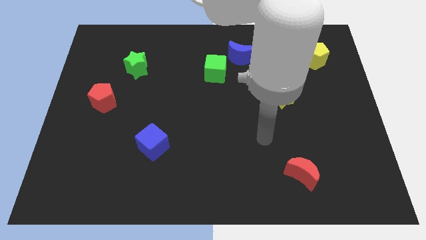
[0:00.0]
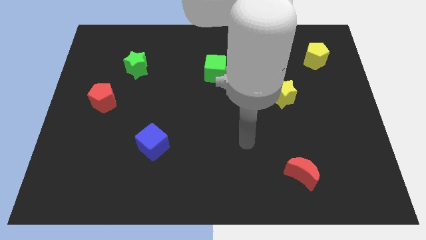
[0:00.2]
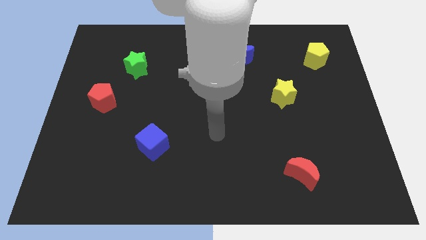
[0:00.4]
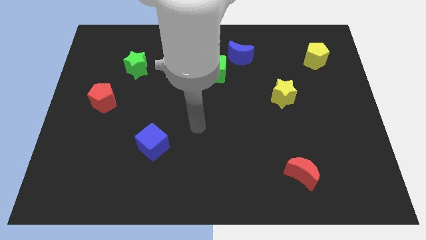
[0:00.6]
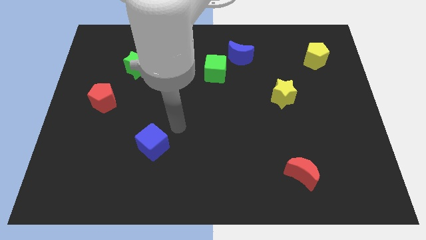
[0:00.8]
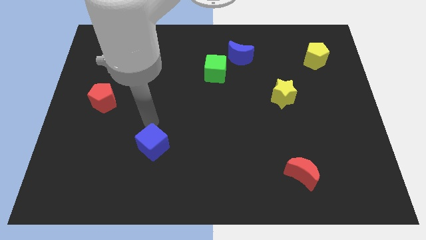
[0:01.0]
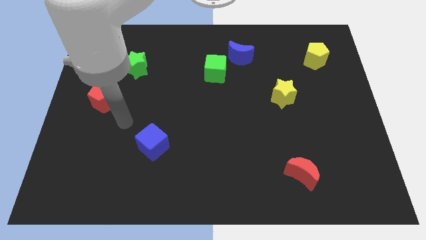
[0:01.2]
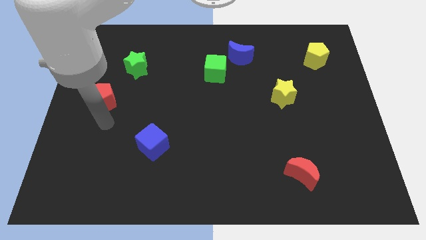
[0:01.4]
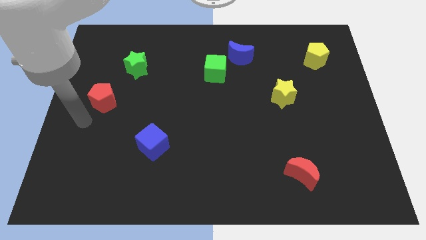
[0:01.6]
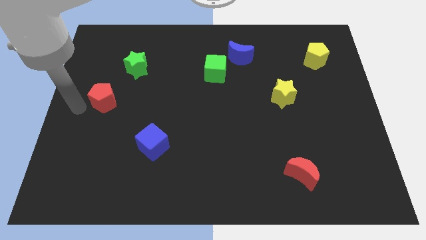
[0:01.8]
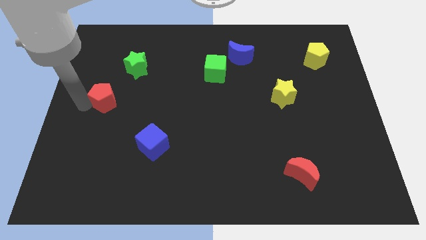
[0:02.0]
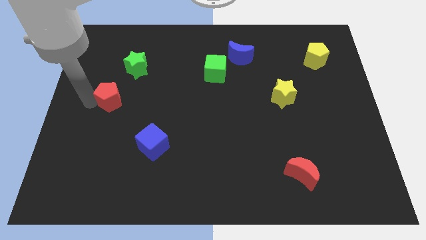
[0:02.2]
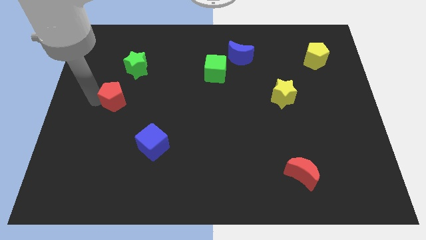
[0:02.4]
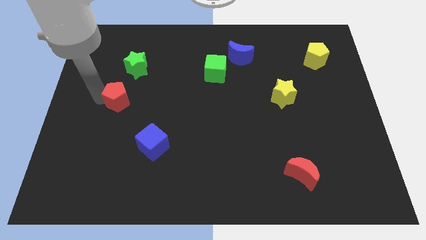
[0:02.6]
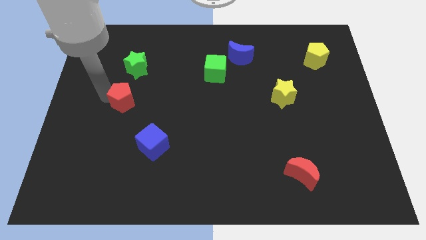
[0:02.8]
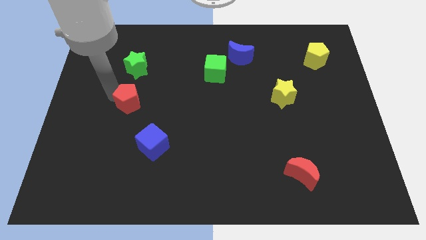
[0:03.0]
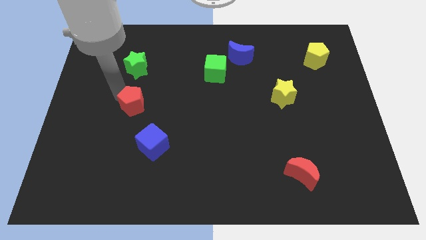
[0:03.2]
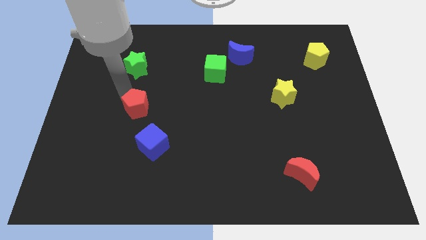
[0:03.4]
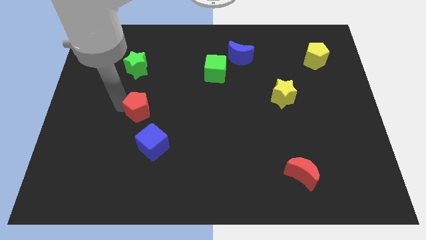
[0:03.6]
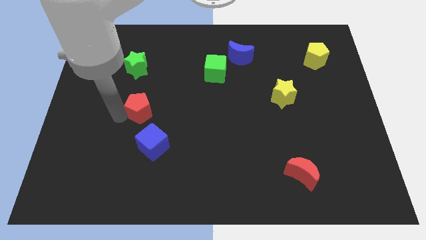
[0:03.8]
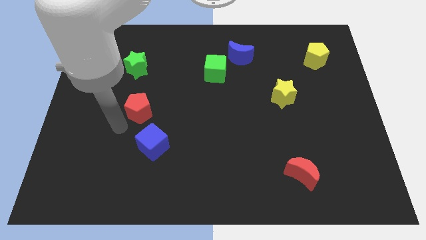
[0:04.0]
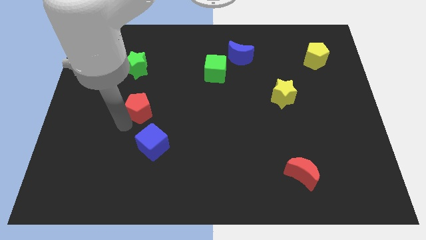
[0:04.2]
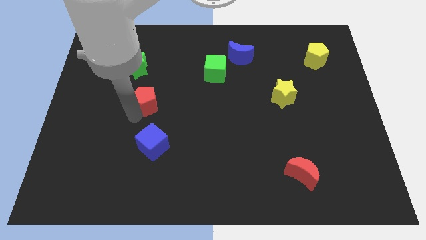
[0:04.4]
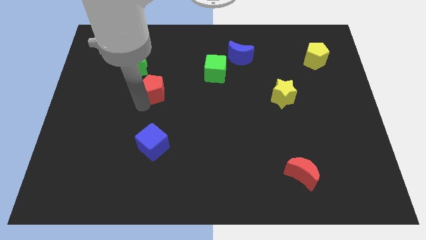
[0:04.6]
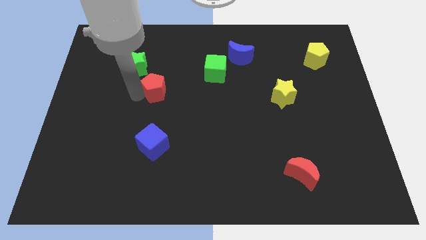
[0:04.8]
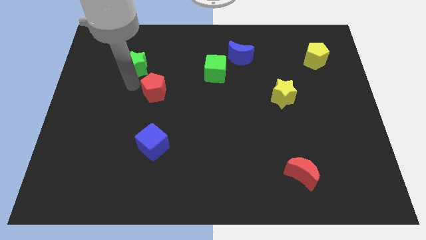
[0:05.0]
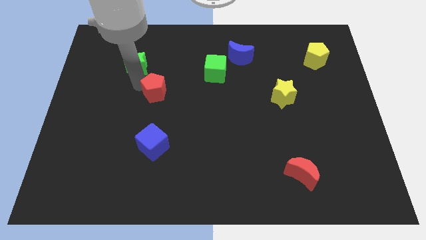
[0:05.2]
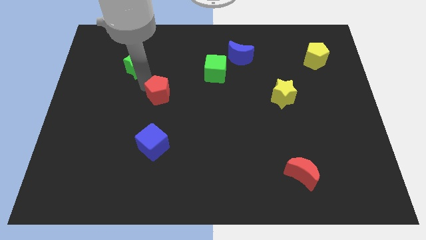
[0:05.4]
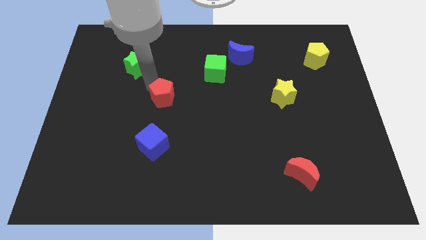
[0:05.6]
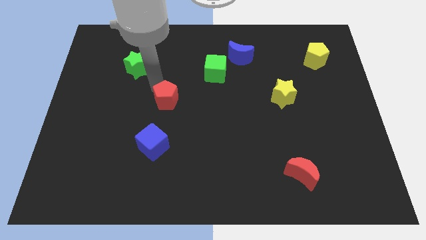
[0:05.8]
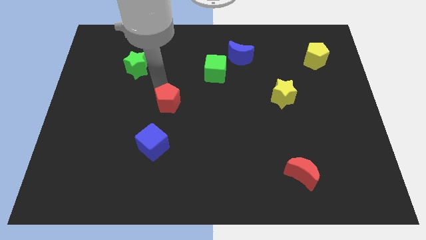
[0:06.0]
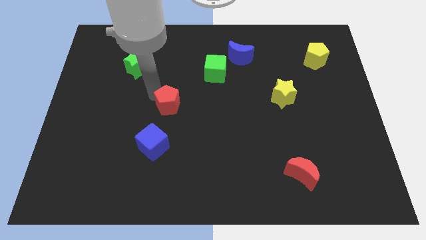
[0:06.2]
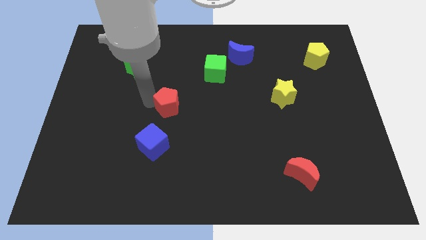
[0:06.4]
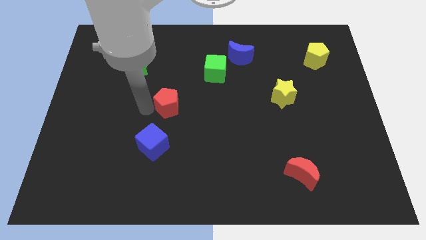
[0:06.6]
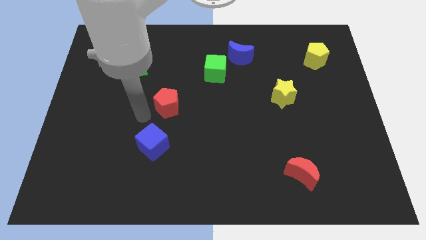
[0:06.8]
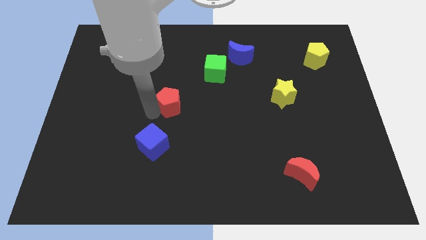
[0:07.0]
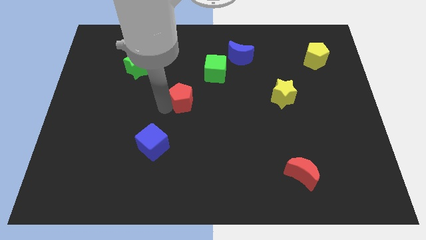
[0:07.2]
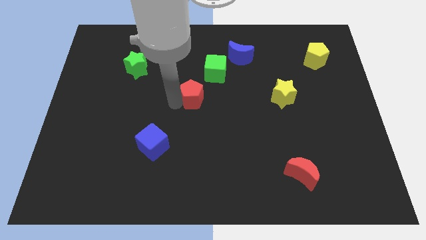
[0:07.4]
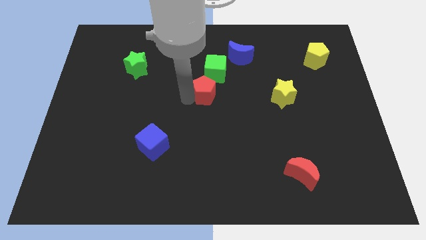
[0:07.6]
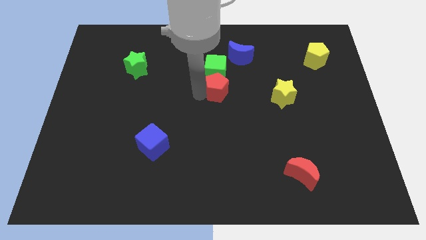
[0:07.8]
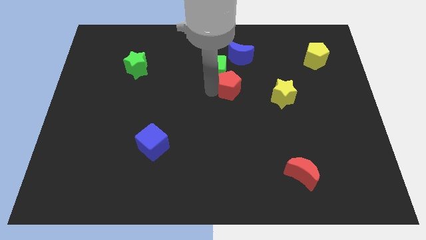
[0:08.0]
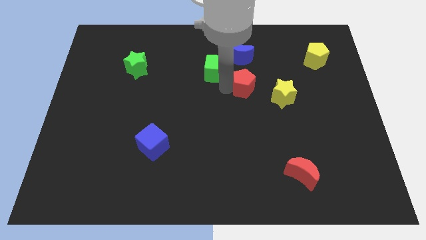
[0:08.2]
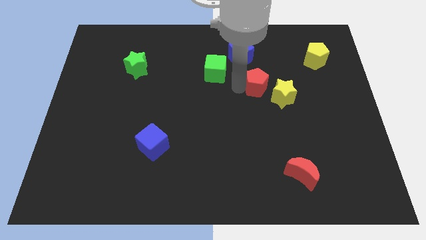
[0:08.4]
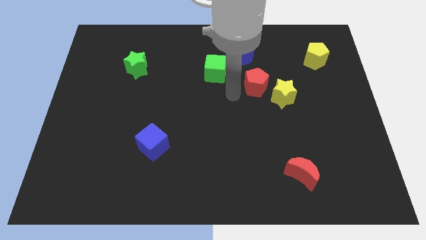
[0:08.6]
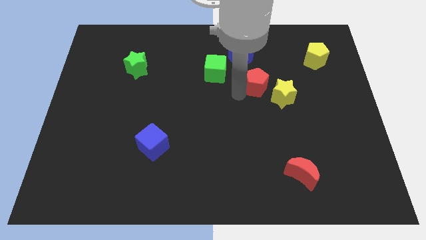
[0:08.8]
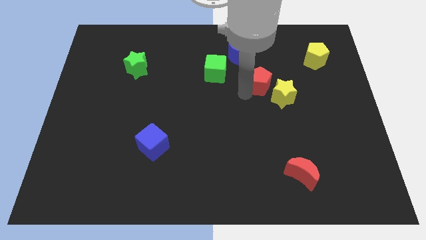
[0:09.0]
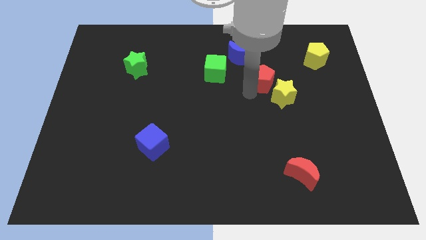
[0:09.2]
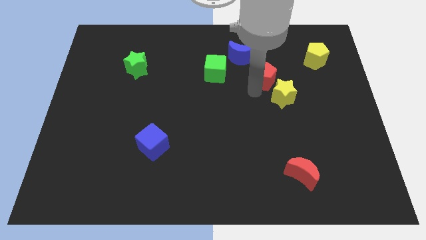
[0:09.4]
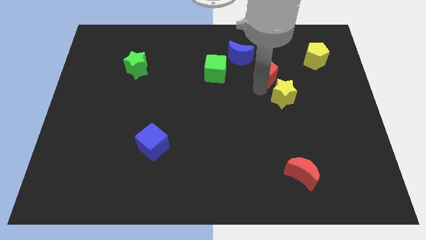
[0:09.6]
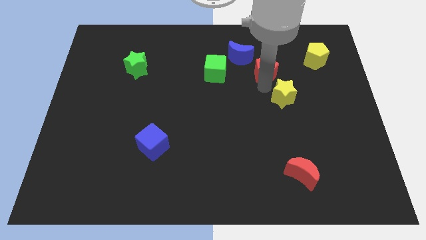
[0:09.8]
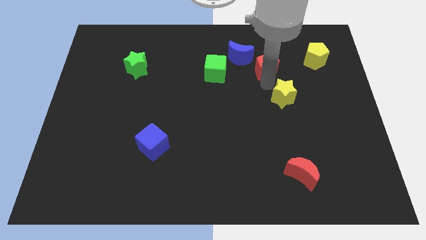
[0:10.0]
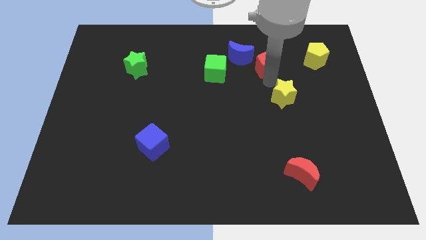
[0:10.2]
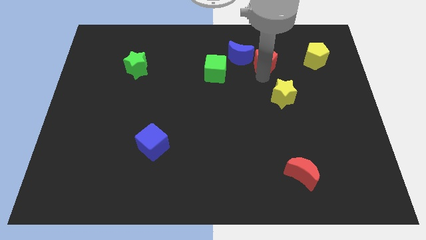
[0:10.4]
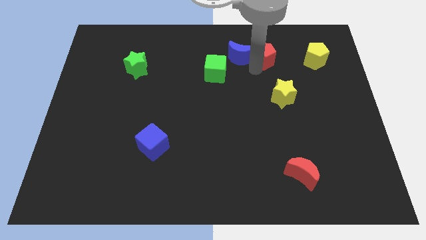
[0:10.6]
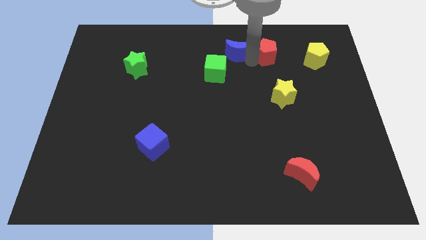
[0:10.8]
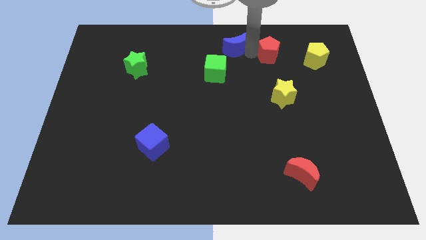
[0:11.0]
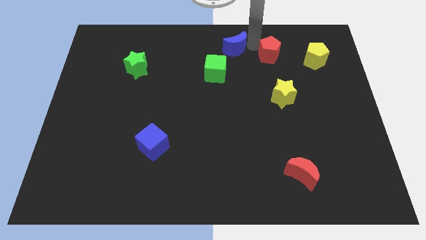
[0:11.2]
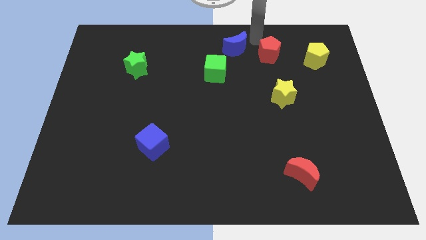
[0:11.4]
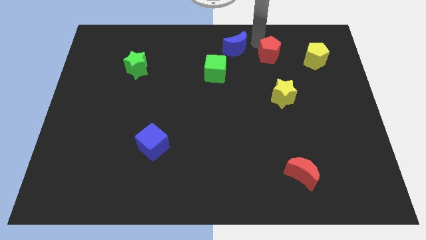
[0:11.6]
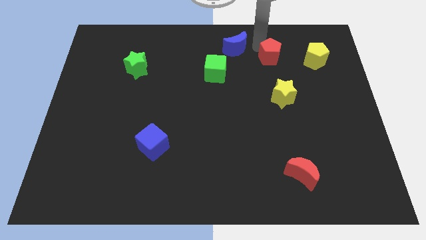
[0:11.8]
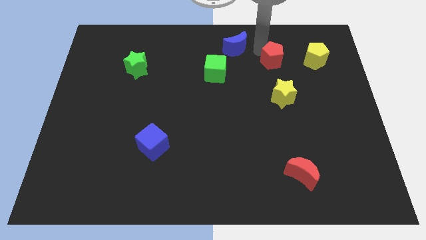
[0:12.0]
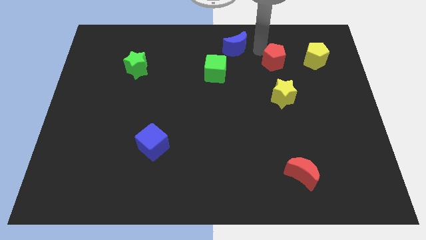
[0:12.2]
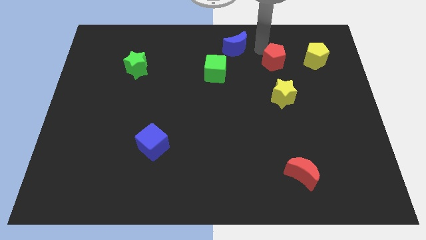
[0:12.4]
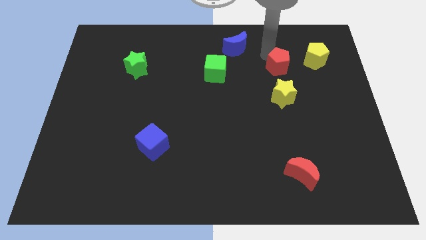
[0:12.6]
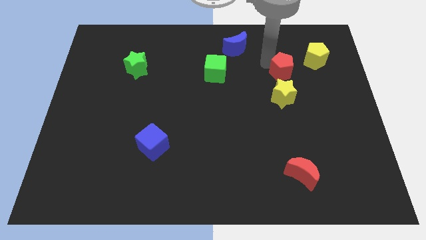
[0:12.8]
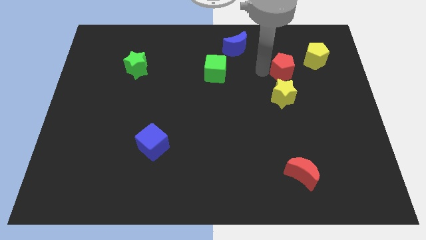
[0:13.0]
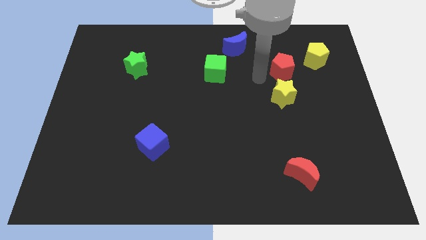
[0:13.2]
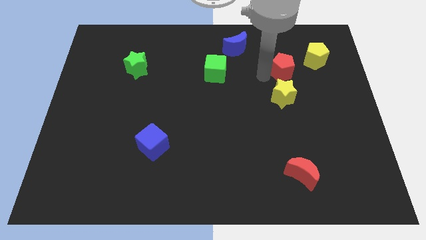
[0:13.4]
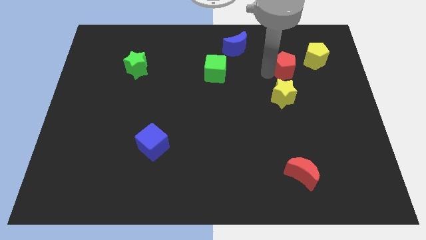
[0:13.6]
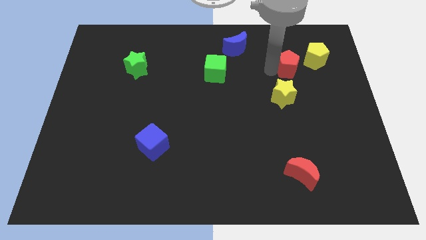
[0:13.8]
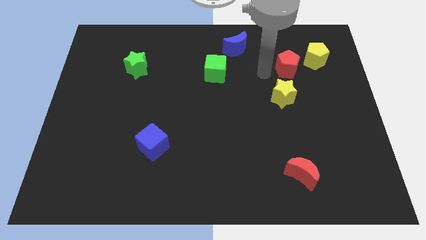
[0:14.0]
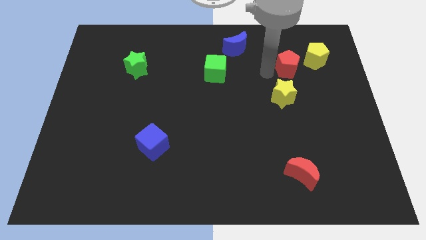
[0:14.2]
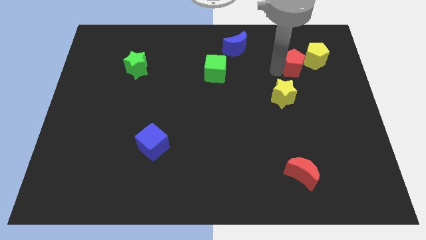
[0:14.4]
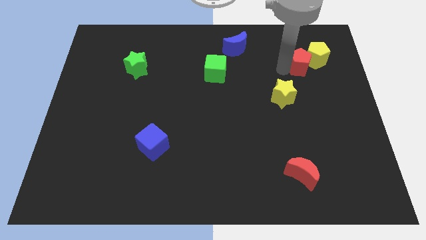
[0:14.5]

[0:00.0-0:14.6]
slide the red pentagon towards the yellow pentagon

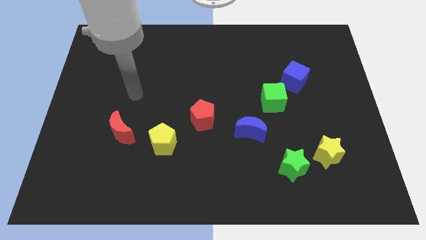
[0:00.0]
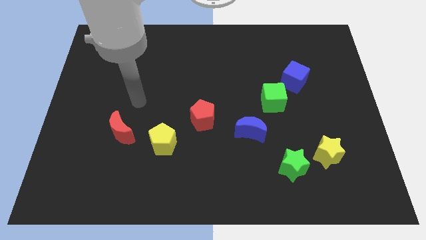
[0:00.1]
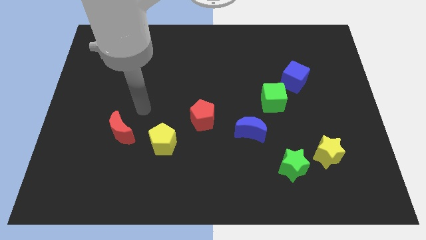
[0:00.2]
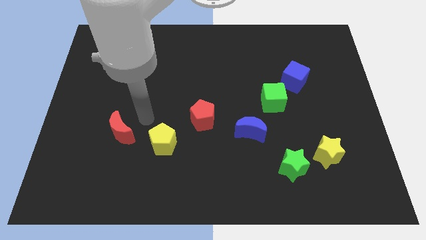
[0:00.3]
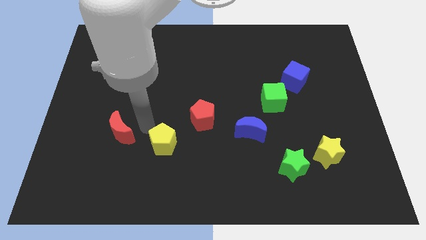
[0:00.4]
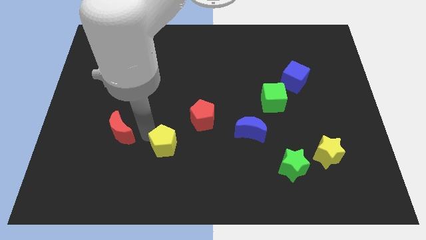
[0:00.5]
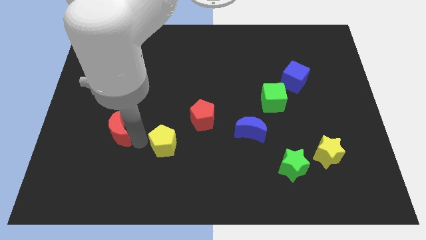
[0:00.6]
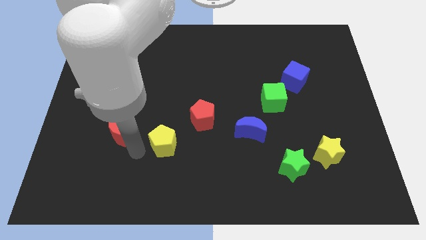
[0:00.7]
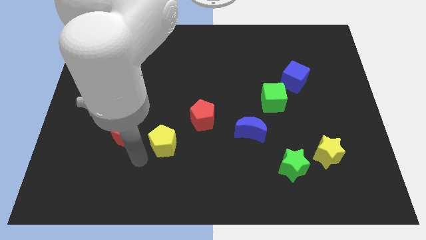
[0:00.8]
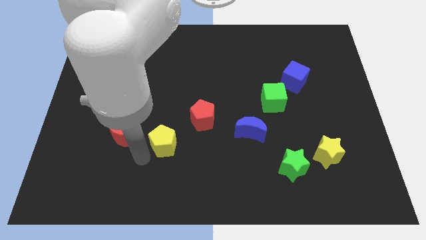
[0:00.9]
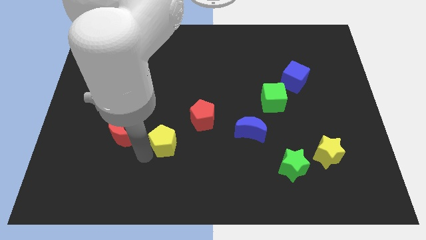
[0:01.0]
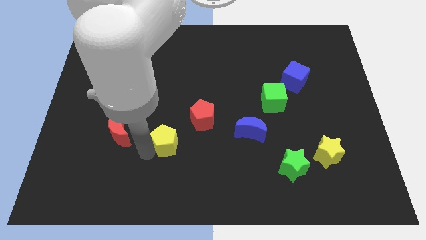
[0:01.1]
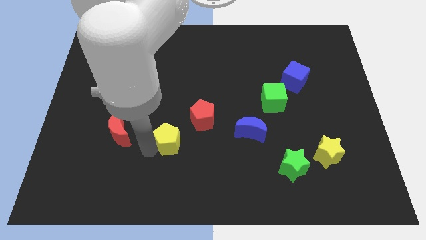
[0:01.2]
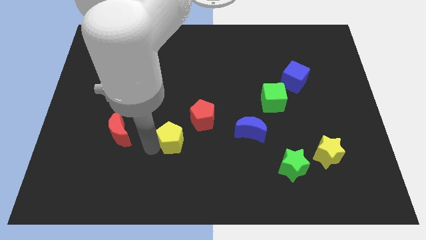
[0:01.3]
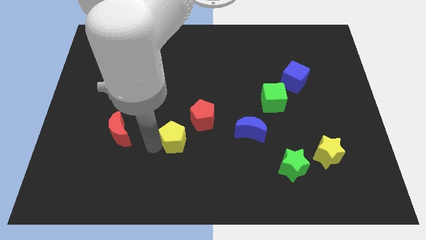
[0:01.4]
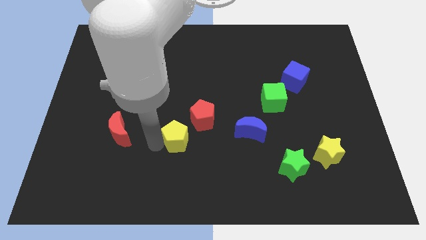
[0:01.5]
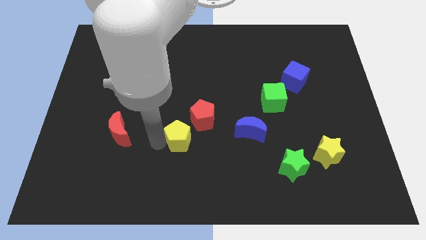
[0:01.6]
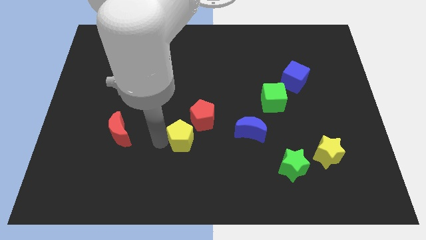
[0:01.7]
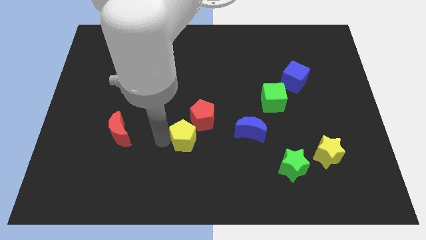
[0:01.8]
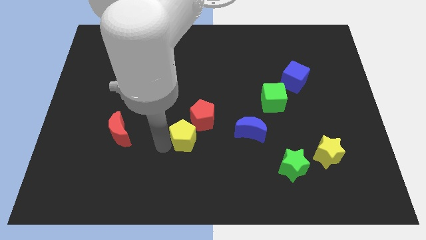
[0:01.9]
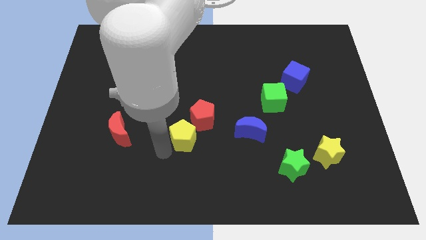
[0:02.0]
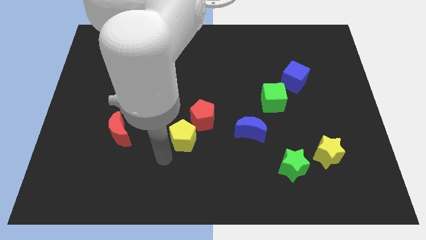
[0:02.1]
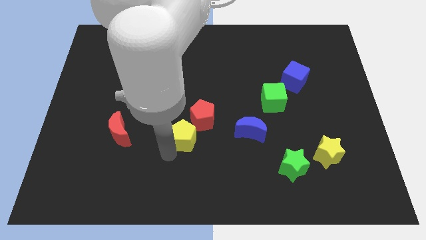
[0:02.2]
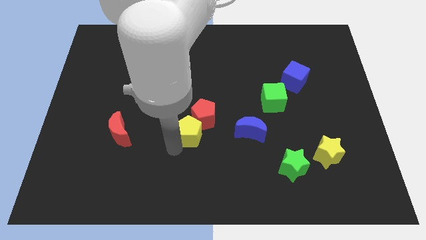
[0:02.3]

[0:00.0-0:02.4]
slide the yellow pentagon towards the red pentagon
